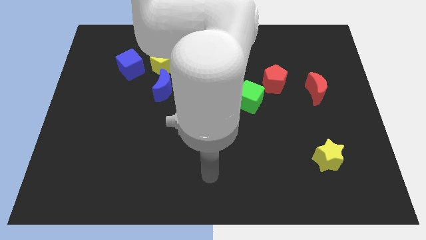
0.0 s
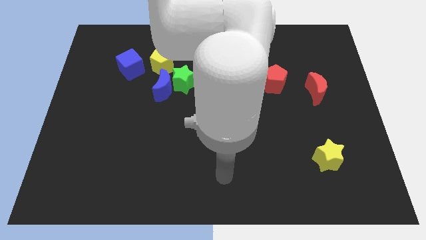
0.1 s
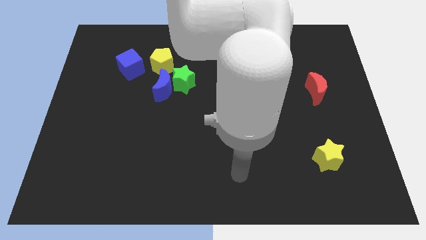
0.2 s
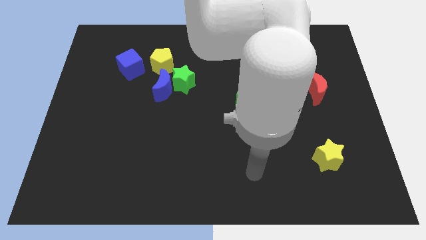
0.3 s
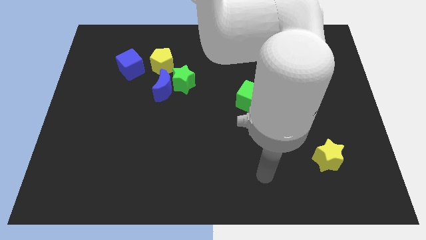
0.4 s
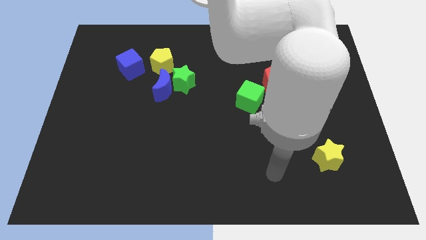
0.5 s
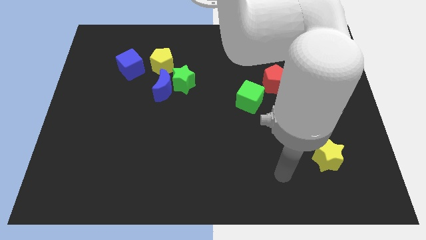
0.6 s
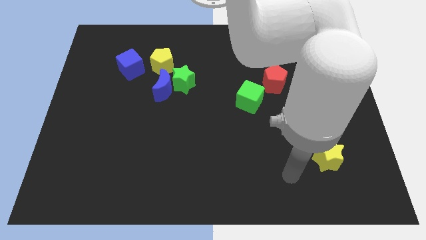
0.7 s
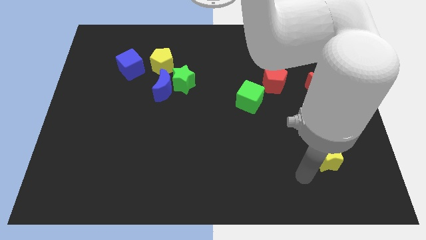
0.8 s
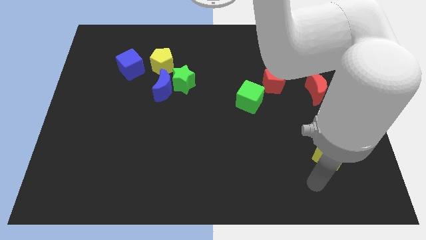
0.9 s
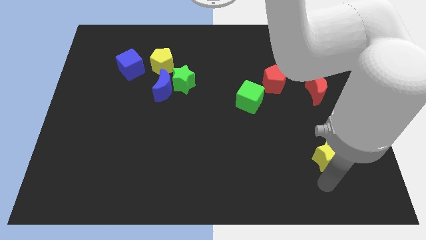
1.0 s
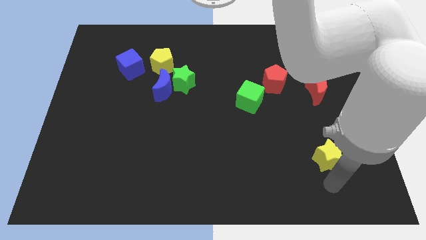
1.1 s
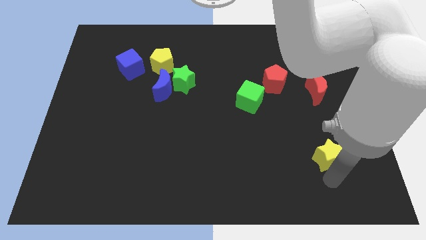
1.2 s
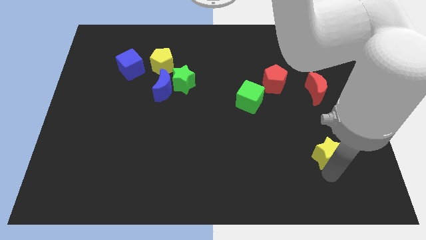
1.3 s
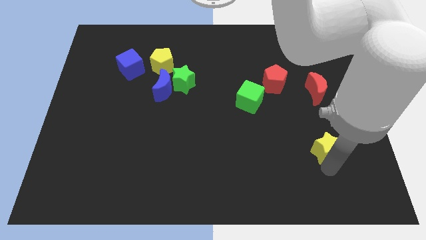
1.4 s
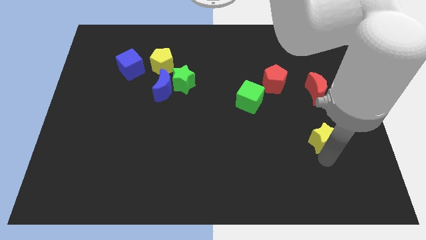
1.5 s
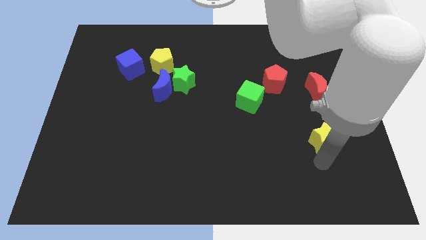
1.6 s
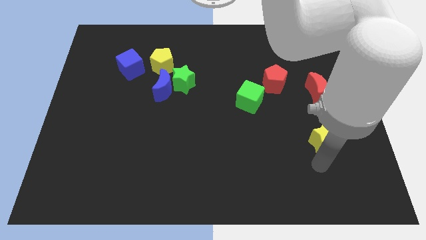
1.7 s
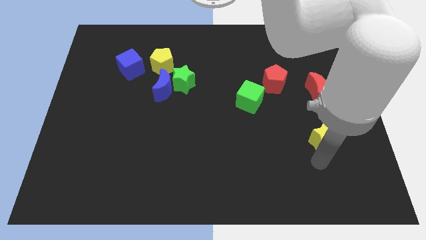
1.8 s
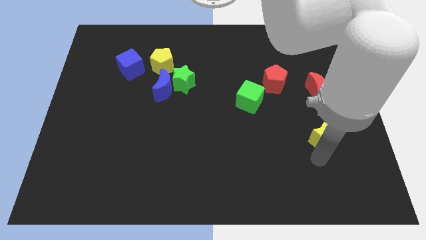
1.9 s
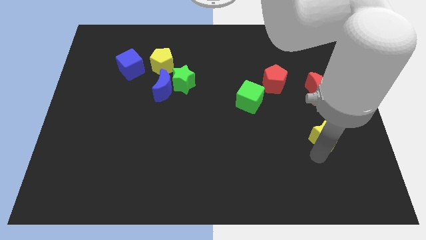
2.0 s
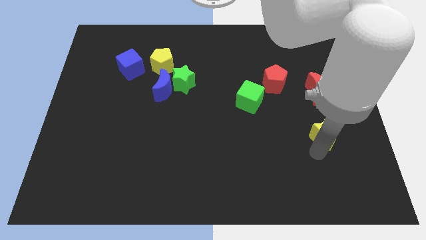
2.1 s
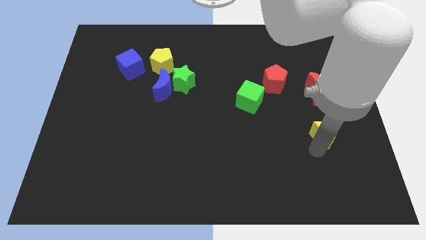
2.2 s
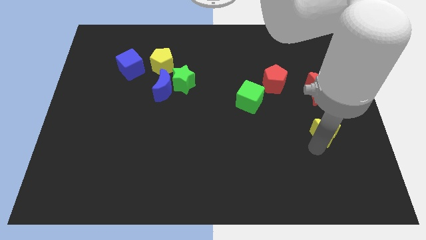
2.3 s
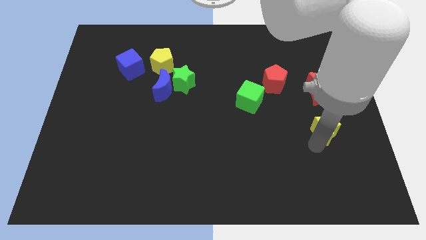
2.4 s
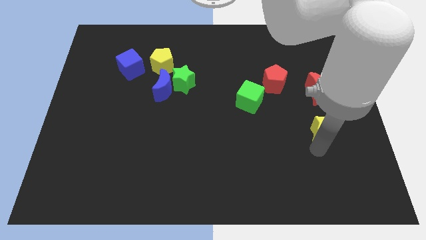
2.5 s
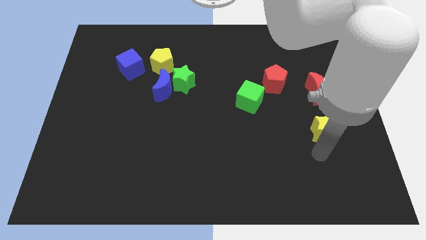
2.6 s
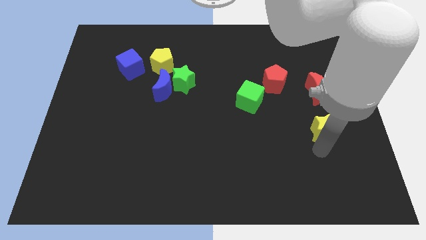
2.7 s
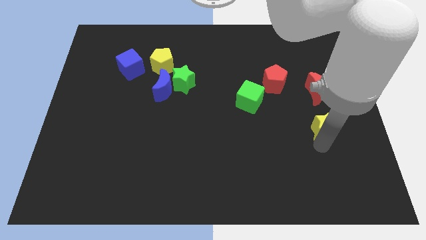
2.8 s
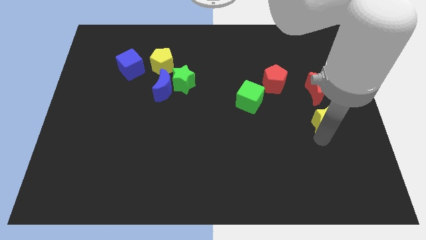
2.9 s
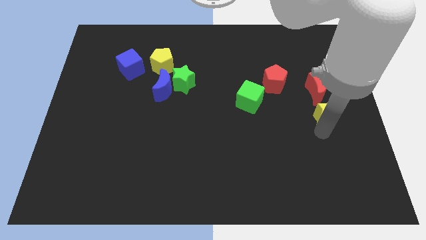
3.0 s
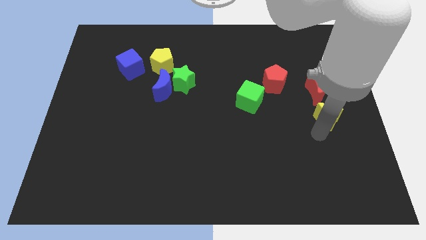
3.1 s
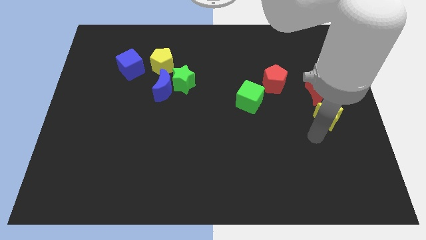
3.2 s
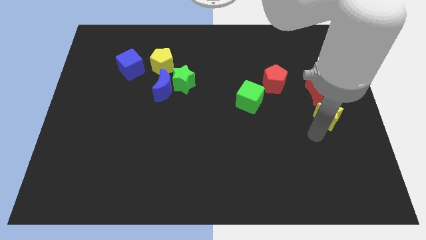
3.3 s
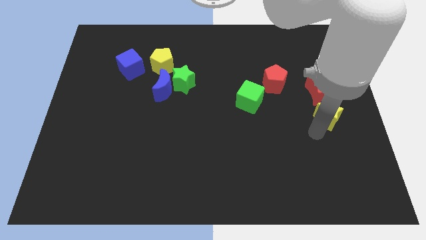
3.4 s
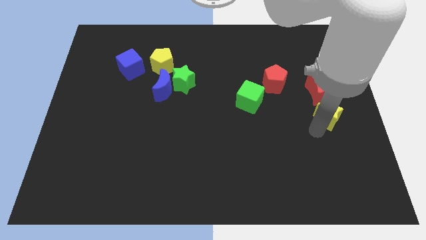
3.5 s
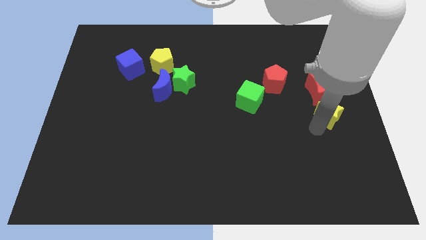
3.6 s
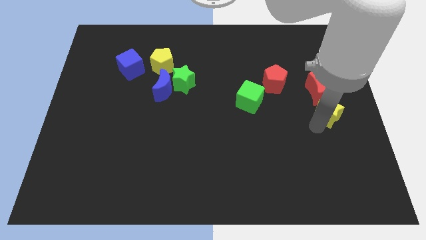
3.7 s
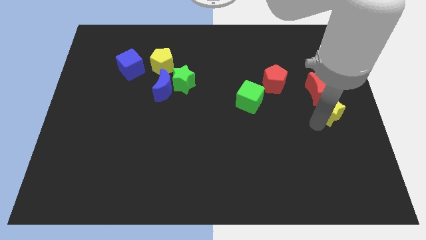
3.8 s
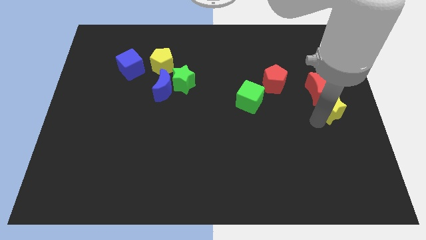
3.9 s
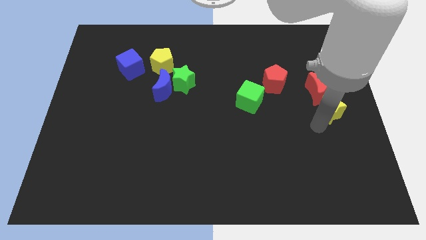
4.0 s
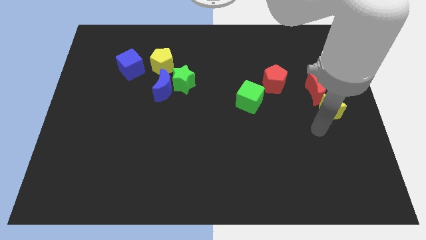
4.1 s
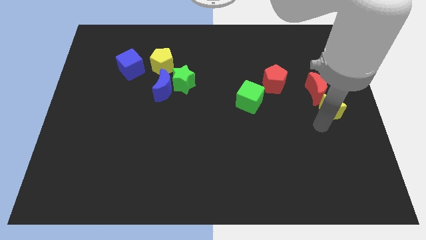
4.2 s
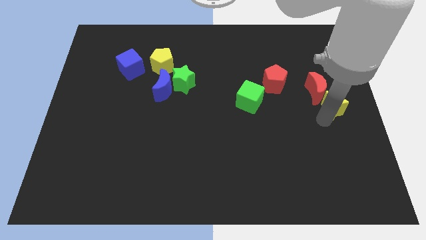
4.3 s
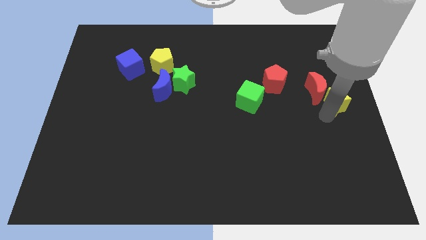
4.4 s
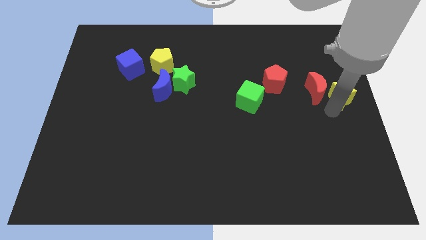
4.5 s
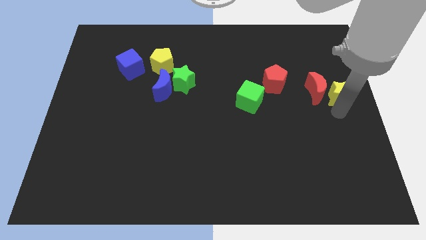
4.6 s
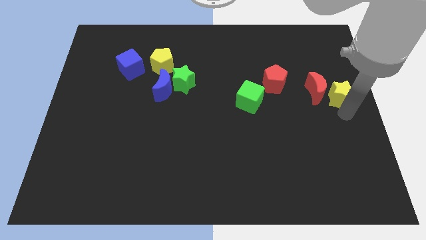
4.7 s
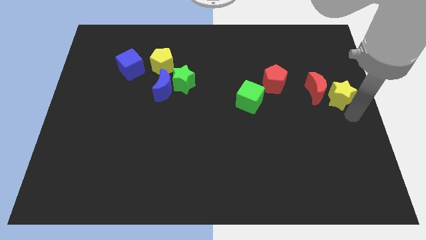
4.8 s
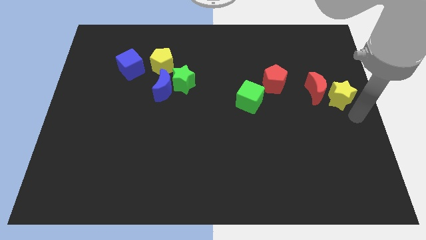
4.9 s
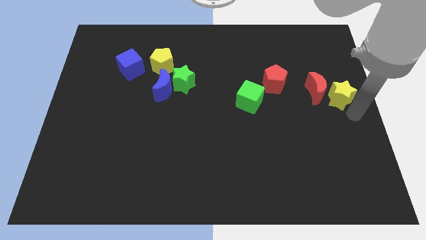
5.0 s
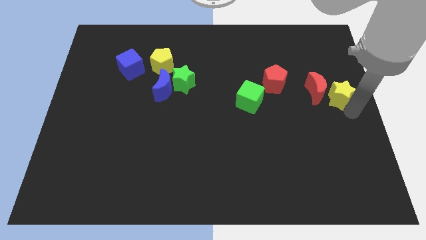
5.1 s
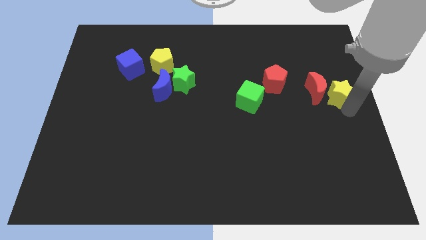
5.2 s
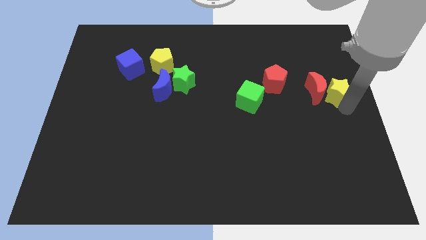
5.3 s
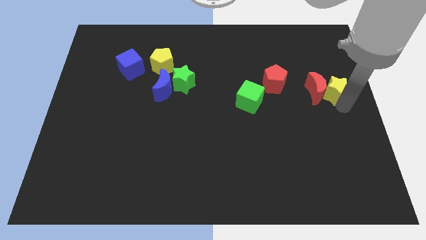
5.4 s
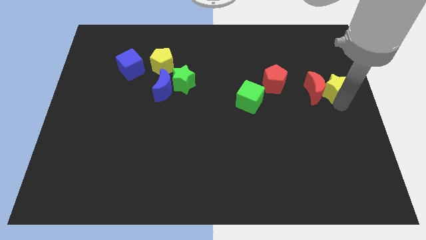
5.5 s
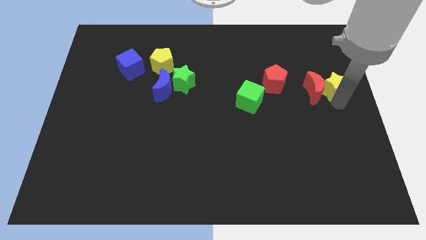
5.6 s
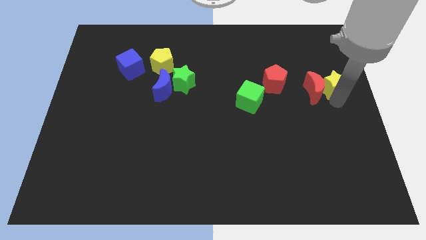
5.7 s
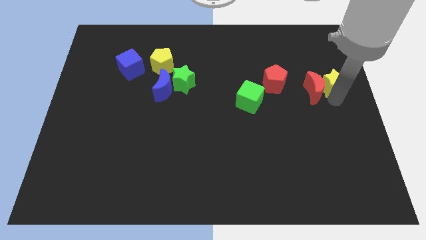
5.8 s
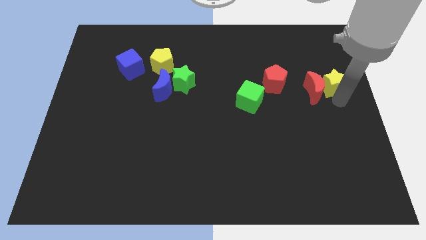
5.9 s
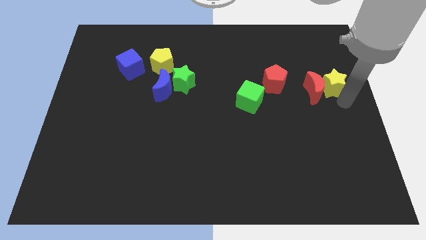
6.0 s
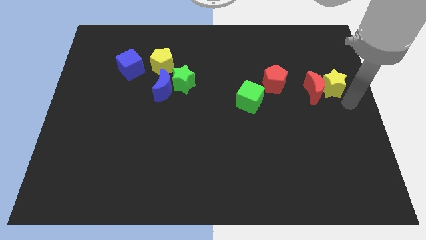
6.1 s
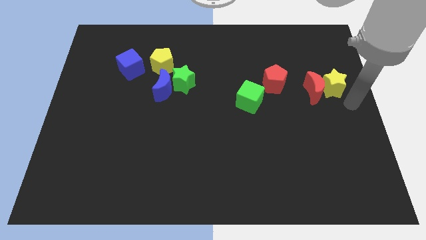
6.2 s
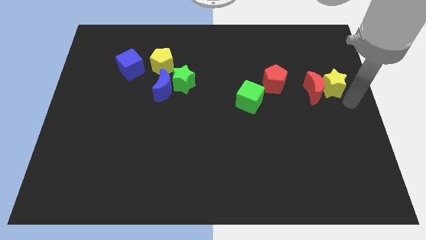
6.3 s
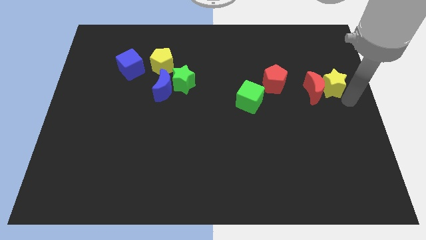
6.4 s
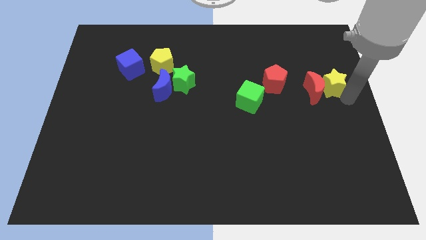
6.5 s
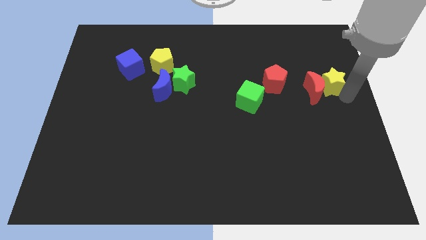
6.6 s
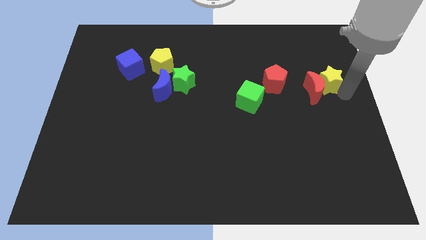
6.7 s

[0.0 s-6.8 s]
move the yellow star to the top of the red moon

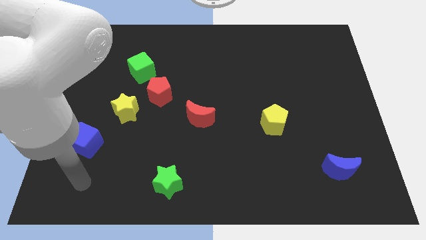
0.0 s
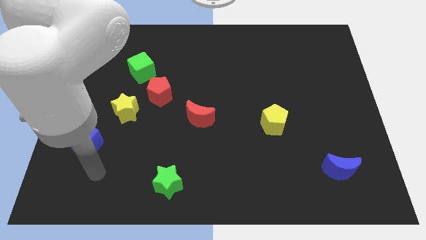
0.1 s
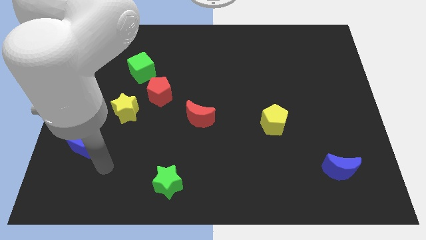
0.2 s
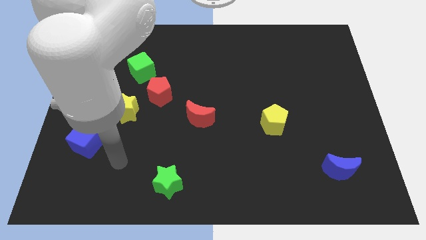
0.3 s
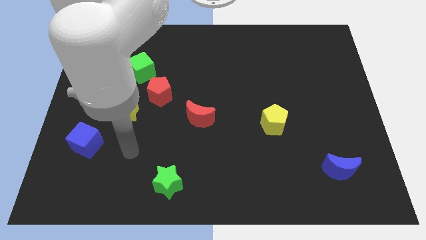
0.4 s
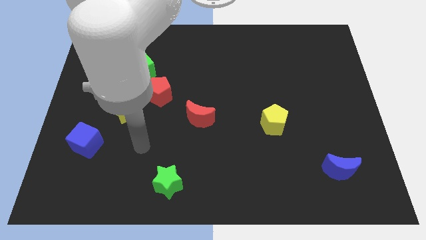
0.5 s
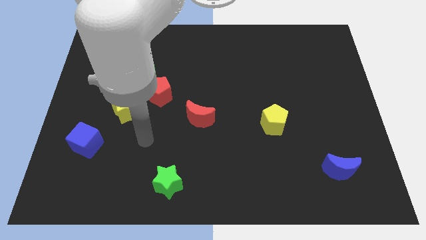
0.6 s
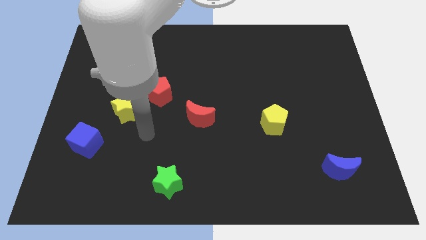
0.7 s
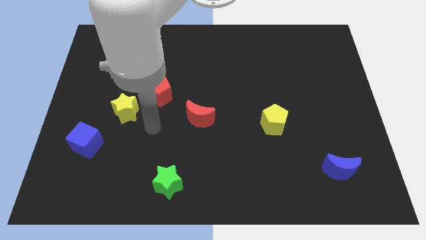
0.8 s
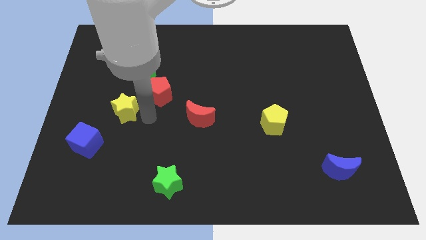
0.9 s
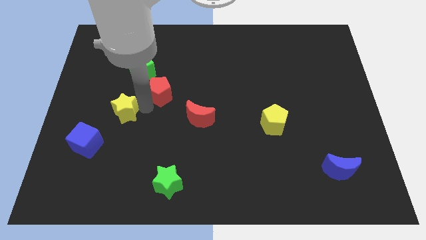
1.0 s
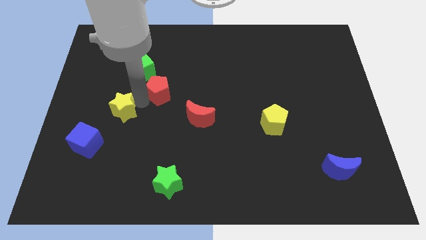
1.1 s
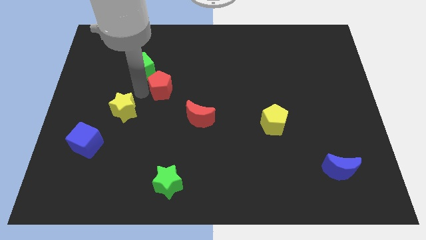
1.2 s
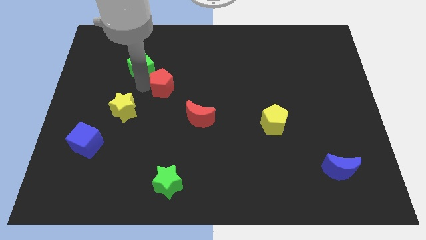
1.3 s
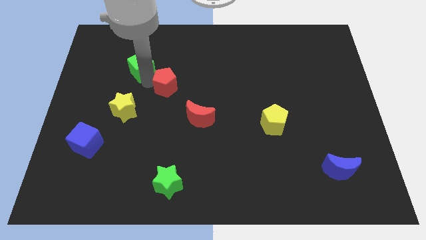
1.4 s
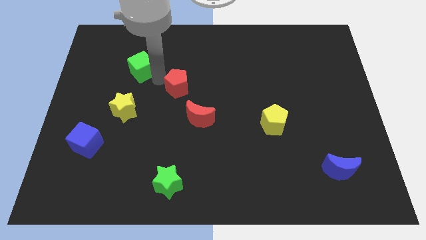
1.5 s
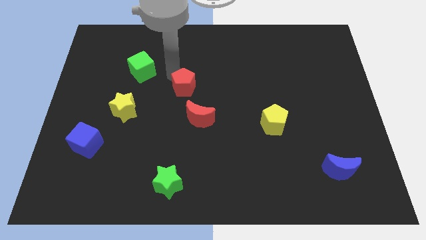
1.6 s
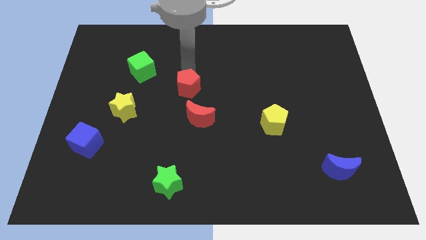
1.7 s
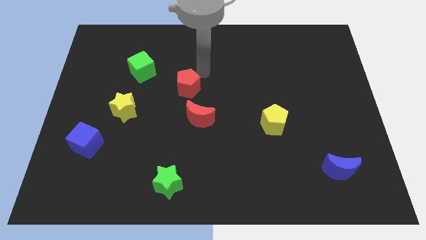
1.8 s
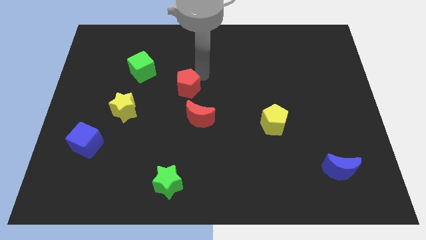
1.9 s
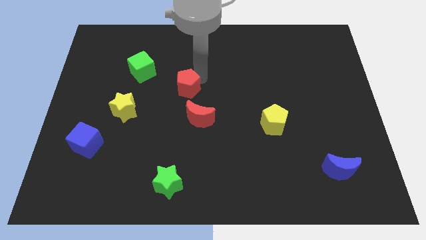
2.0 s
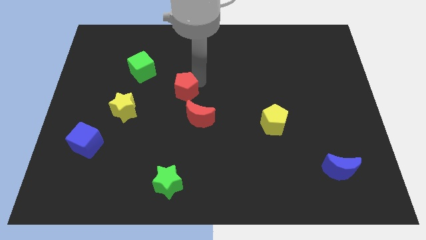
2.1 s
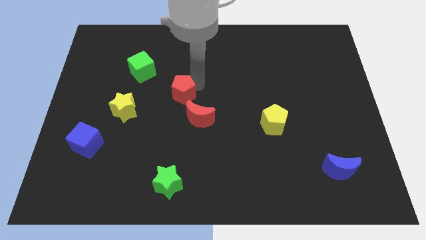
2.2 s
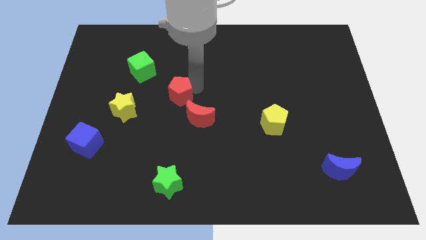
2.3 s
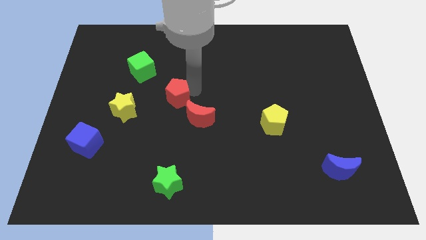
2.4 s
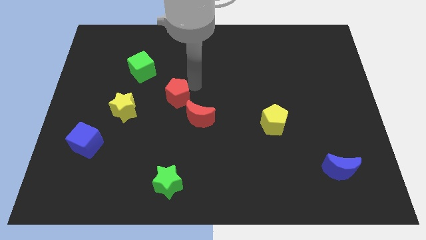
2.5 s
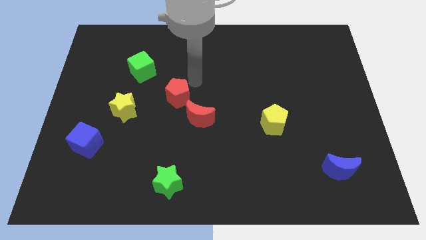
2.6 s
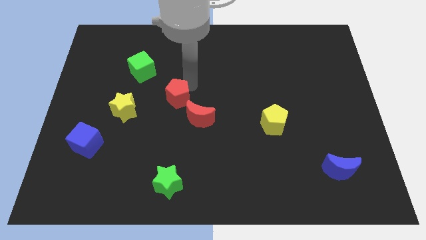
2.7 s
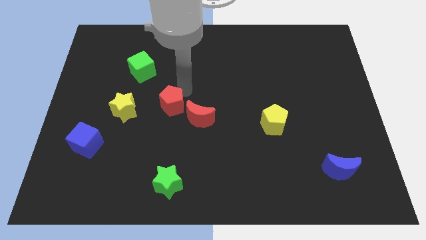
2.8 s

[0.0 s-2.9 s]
move the red pentagon to the left side of the red moon
